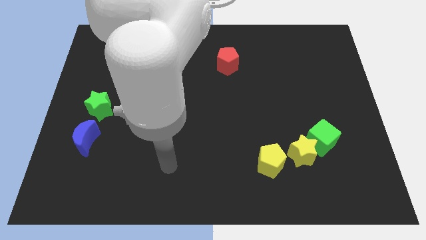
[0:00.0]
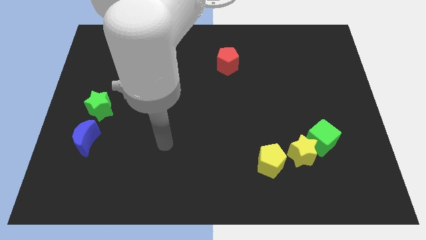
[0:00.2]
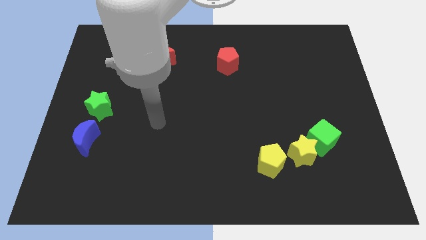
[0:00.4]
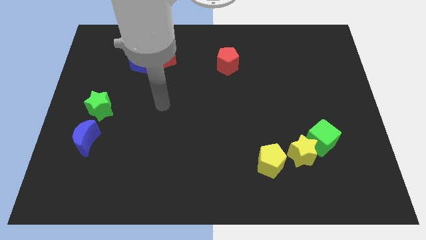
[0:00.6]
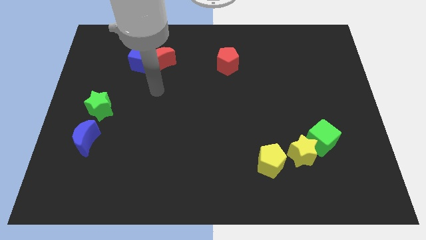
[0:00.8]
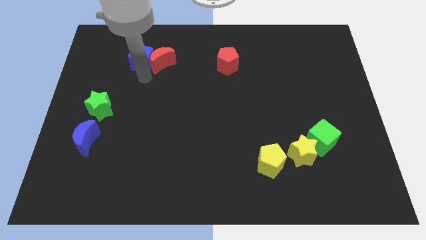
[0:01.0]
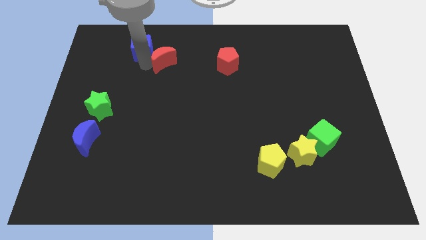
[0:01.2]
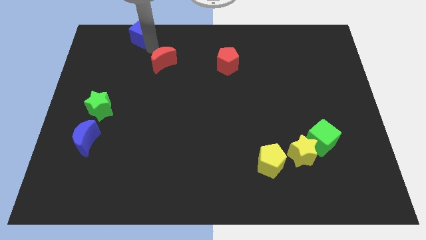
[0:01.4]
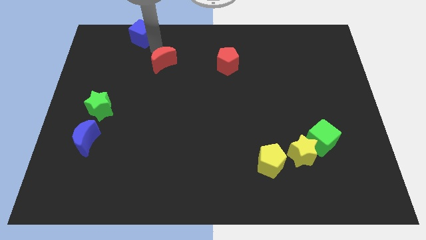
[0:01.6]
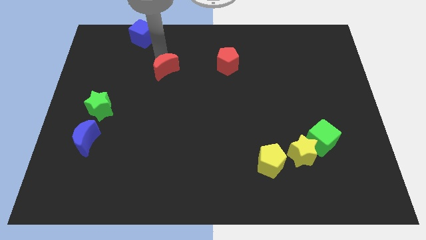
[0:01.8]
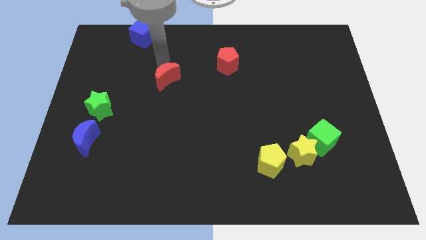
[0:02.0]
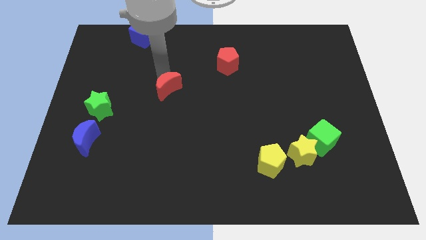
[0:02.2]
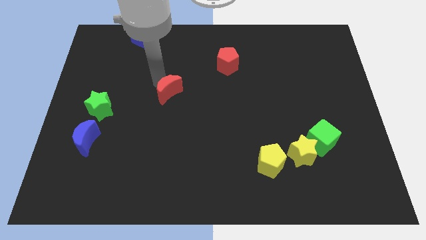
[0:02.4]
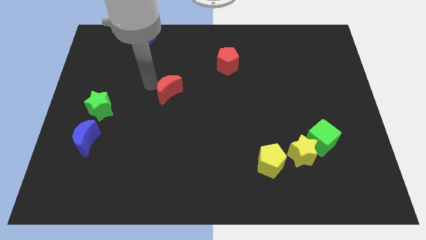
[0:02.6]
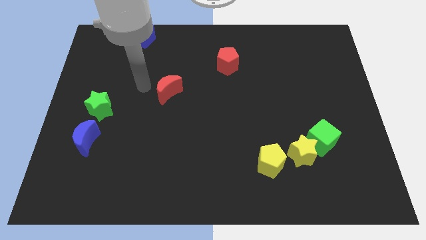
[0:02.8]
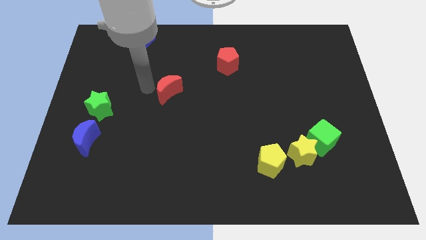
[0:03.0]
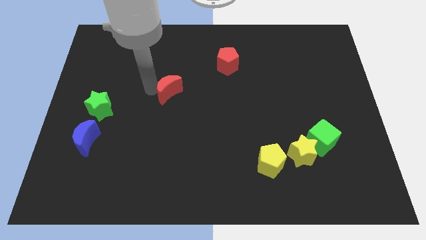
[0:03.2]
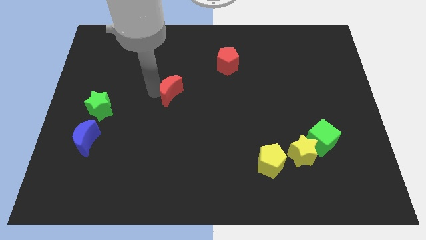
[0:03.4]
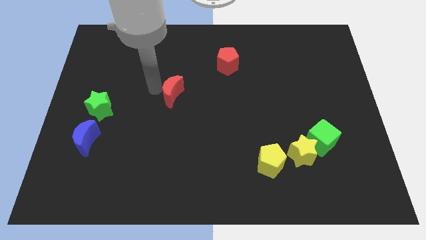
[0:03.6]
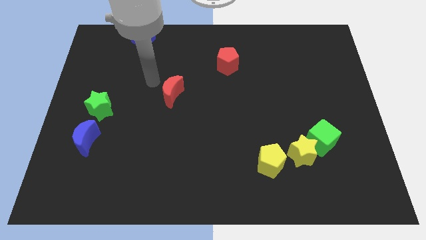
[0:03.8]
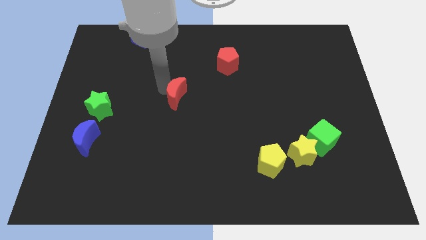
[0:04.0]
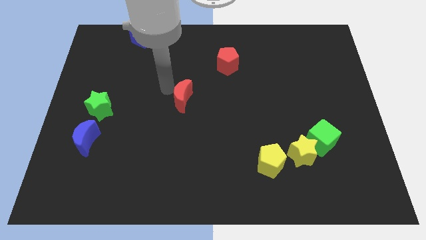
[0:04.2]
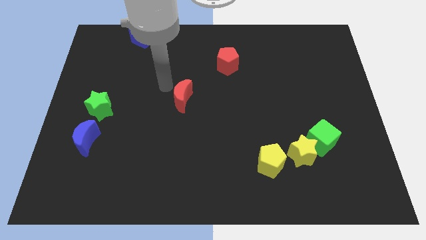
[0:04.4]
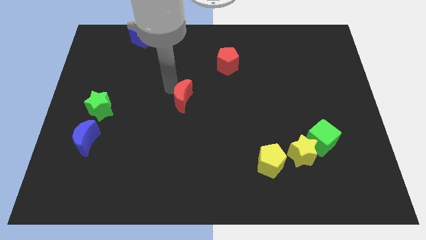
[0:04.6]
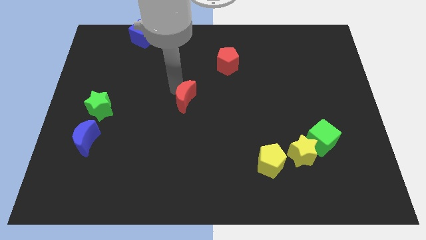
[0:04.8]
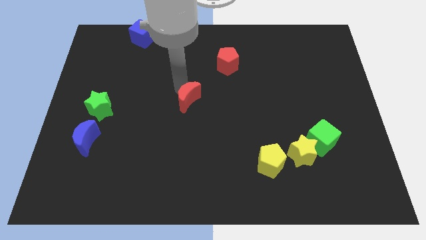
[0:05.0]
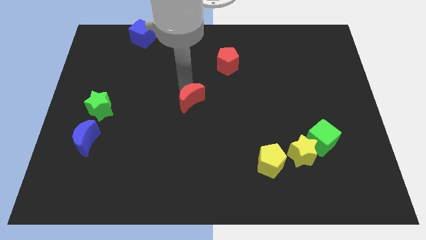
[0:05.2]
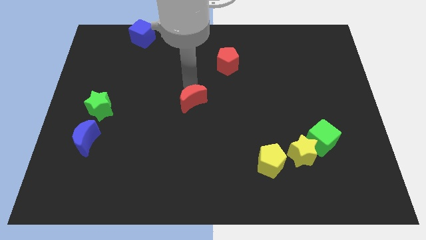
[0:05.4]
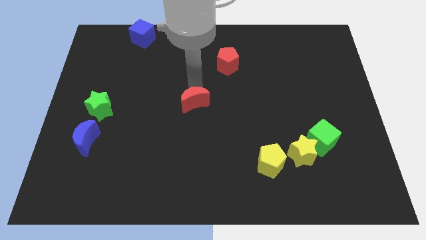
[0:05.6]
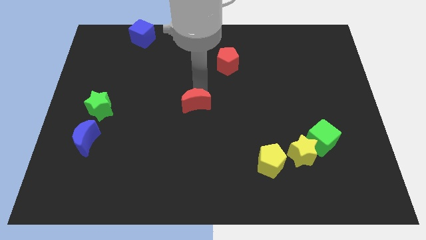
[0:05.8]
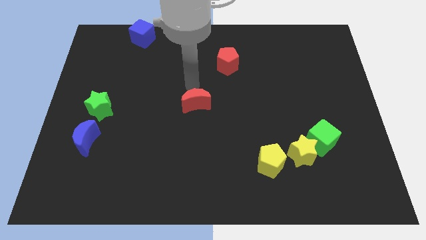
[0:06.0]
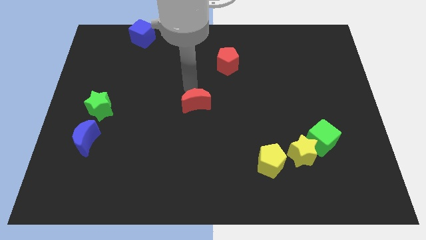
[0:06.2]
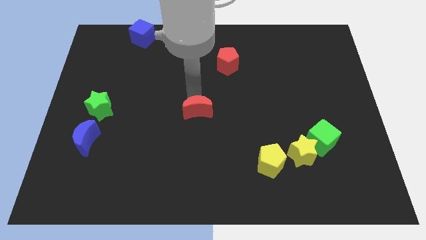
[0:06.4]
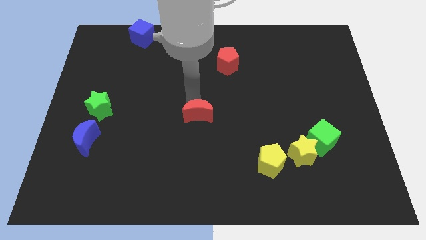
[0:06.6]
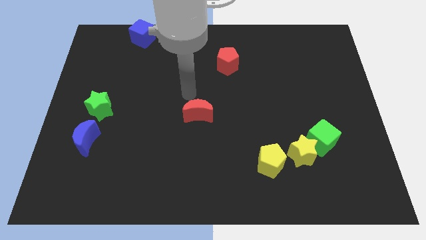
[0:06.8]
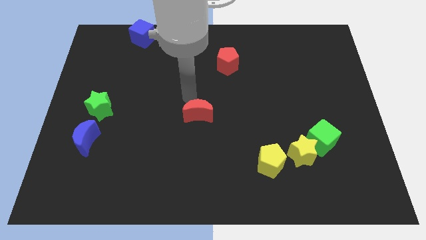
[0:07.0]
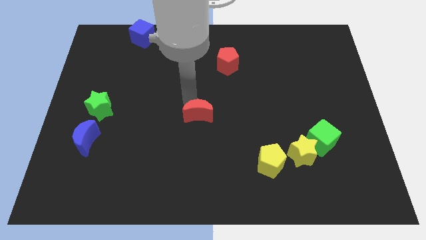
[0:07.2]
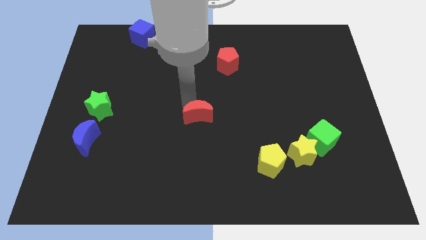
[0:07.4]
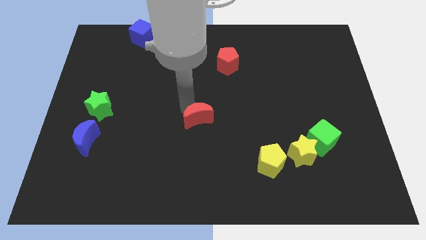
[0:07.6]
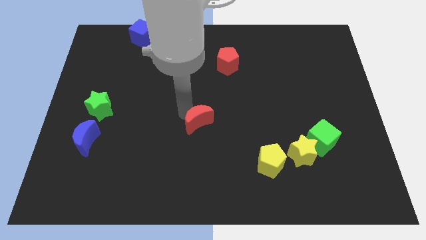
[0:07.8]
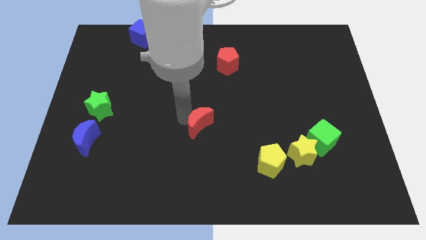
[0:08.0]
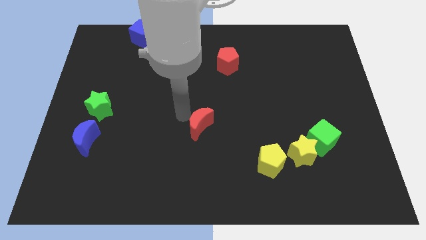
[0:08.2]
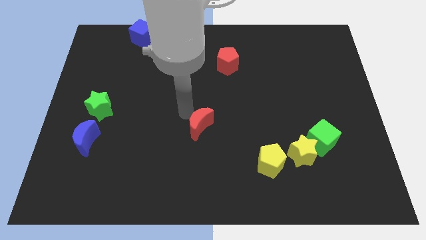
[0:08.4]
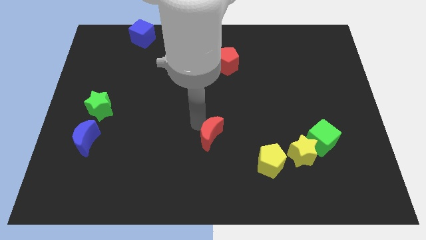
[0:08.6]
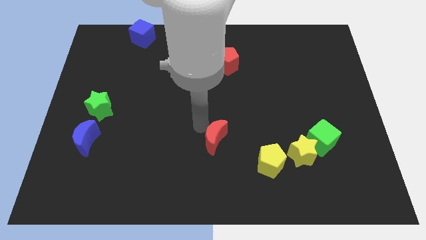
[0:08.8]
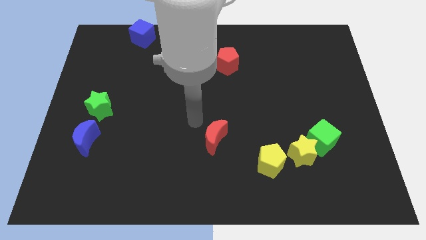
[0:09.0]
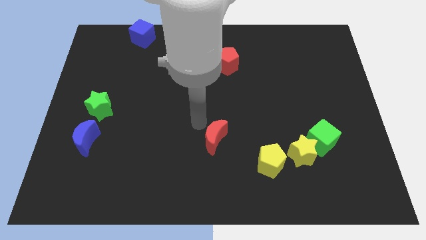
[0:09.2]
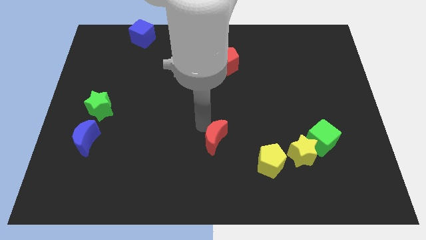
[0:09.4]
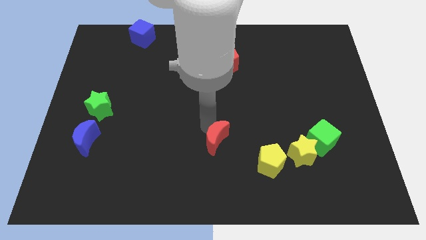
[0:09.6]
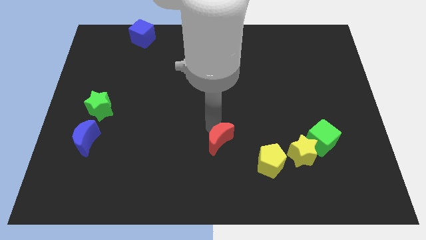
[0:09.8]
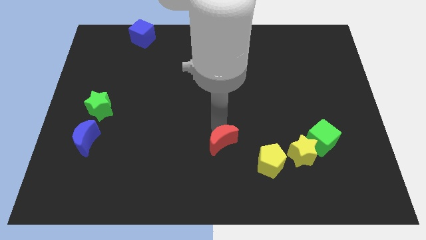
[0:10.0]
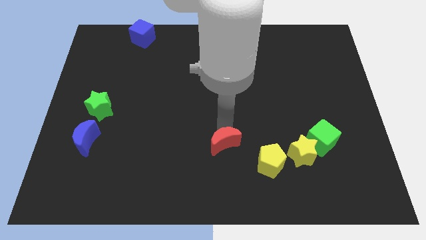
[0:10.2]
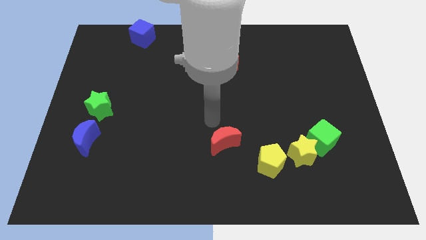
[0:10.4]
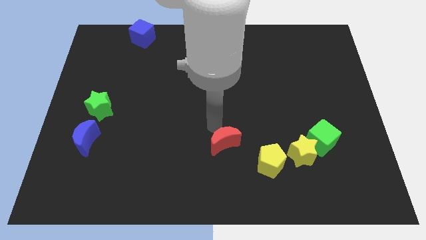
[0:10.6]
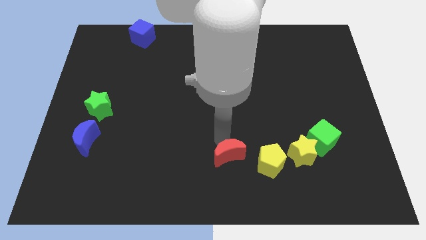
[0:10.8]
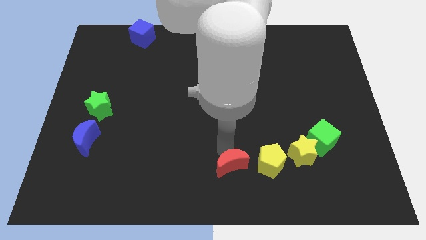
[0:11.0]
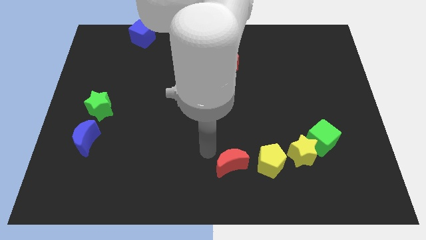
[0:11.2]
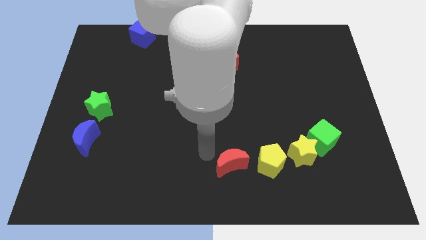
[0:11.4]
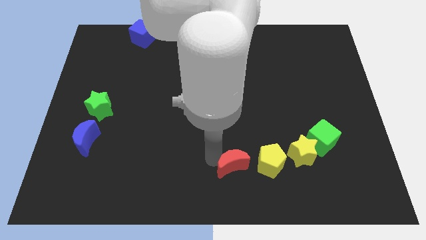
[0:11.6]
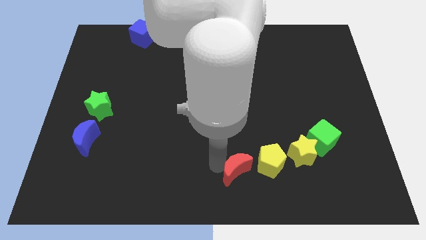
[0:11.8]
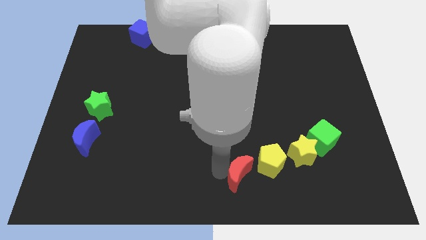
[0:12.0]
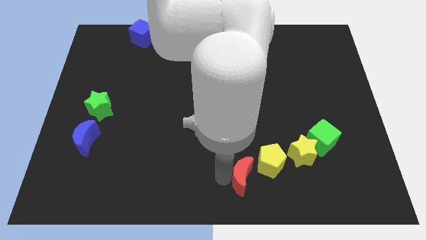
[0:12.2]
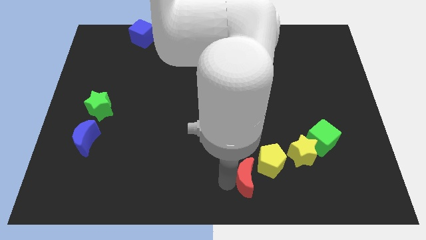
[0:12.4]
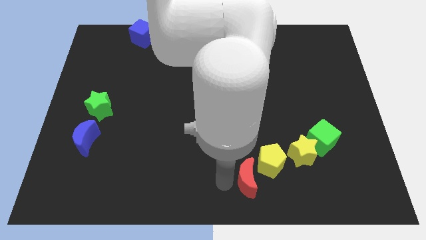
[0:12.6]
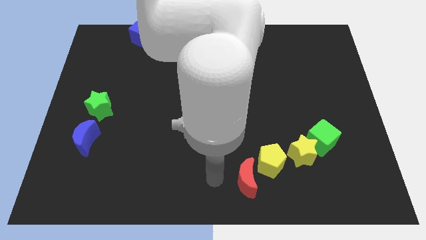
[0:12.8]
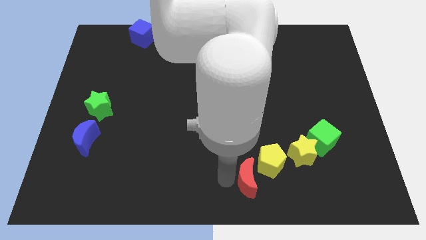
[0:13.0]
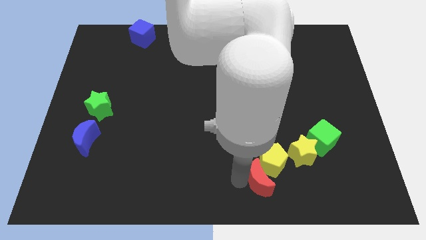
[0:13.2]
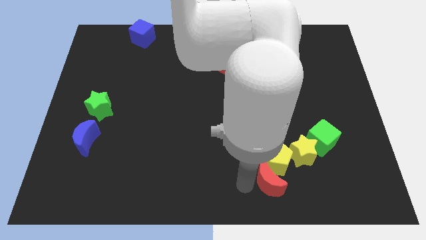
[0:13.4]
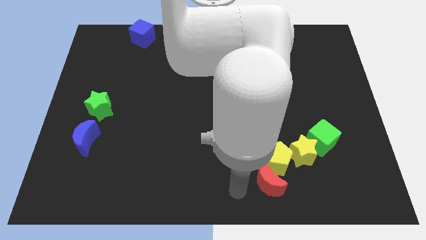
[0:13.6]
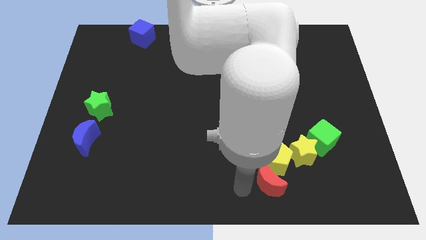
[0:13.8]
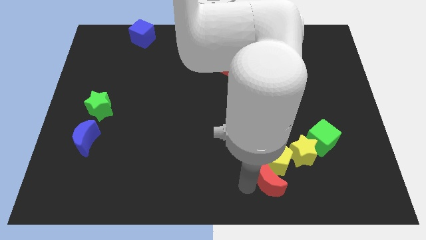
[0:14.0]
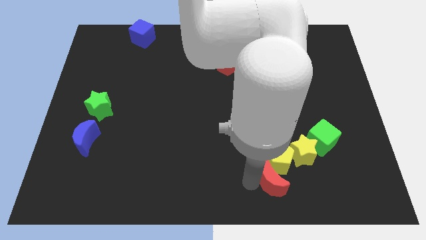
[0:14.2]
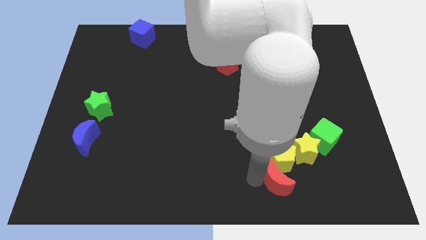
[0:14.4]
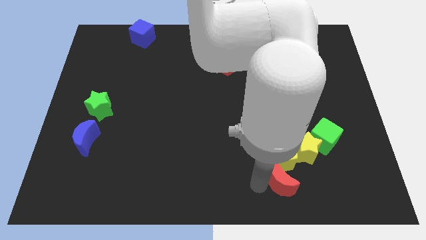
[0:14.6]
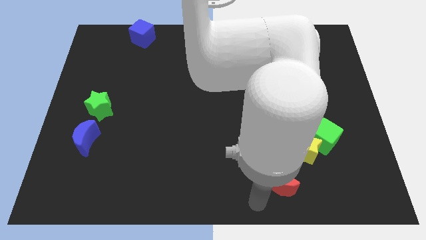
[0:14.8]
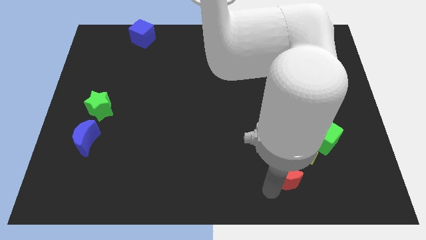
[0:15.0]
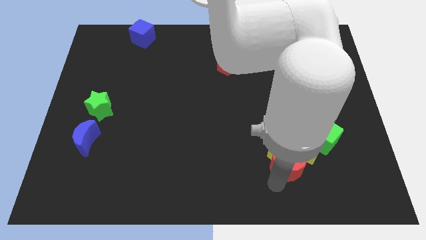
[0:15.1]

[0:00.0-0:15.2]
slide the red moon diagonally down and to the left of the green cube

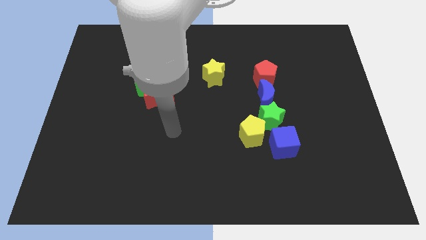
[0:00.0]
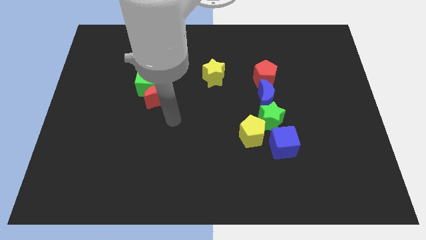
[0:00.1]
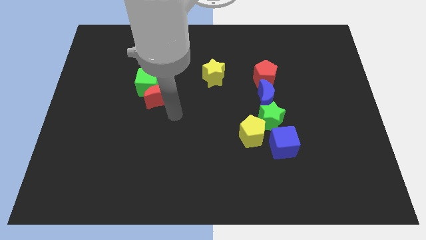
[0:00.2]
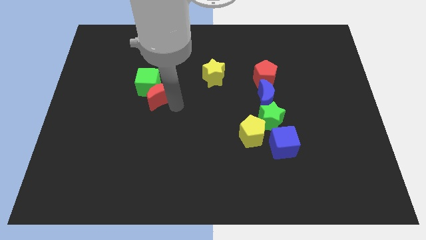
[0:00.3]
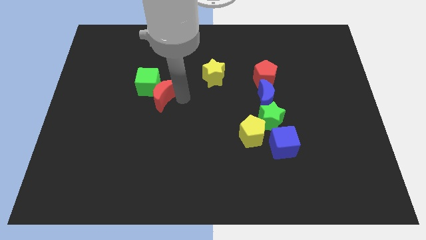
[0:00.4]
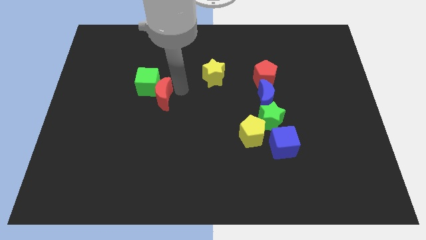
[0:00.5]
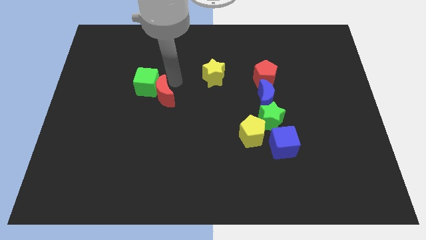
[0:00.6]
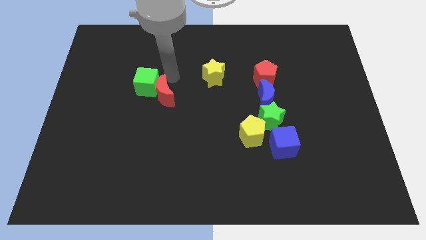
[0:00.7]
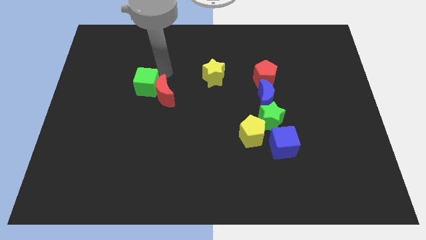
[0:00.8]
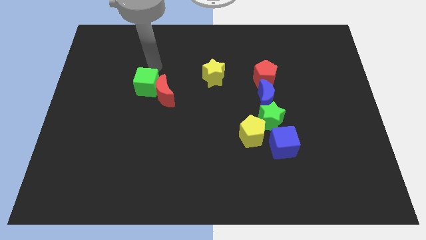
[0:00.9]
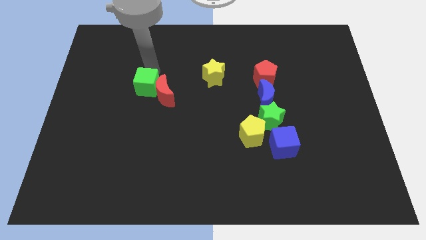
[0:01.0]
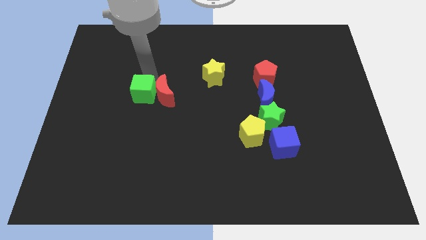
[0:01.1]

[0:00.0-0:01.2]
slide the green cube diagonally down and to the left of the red moon
